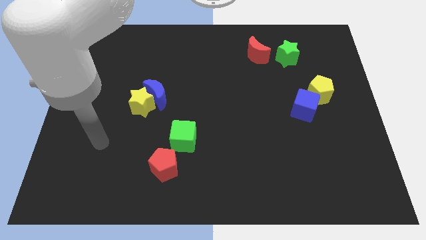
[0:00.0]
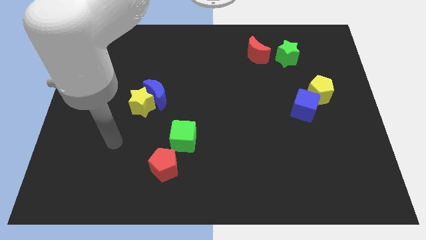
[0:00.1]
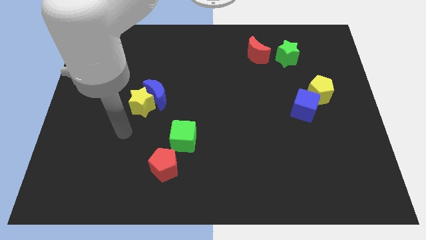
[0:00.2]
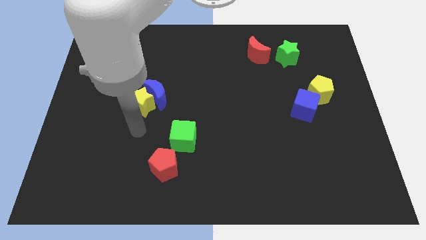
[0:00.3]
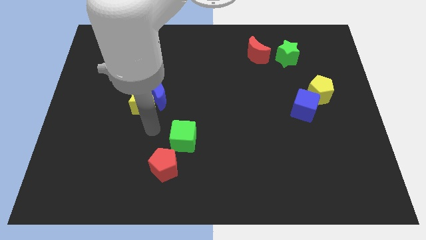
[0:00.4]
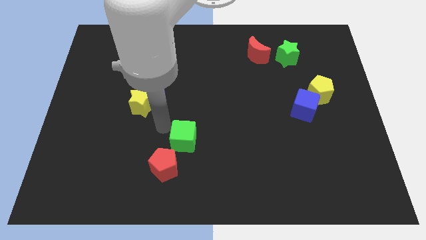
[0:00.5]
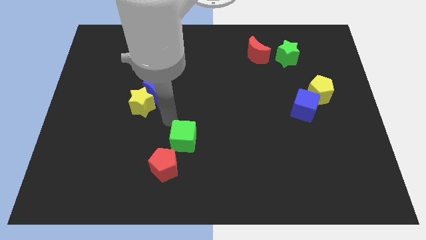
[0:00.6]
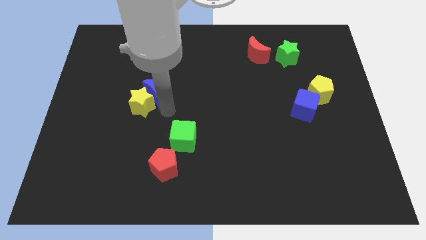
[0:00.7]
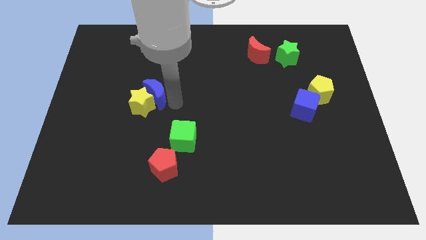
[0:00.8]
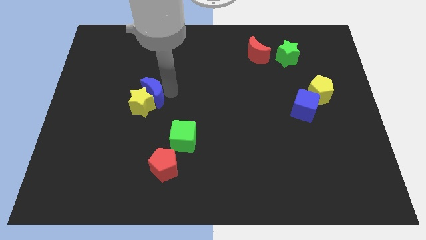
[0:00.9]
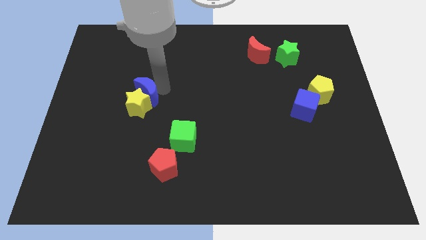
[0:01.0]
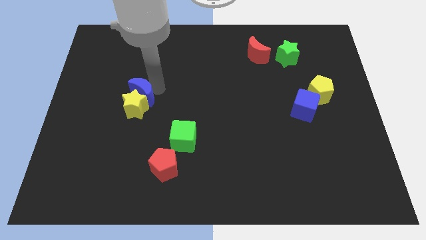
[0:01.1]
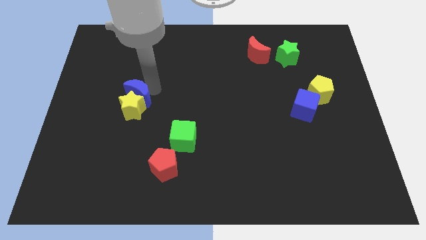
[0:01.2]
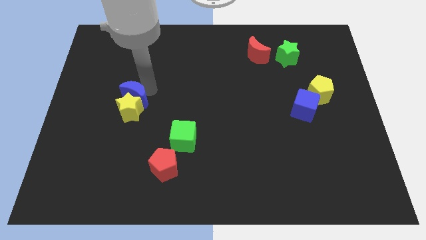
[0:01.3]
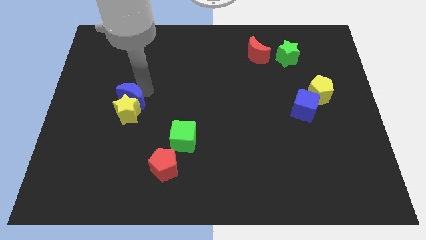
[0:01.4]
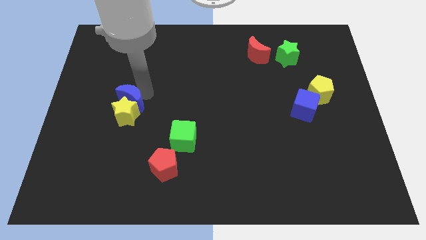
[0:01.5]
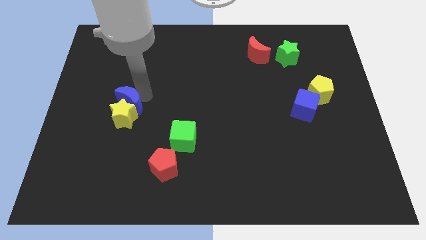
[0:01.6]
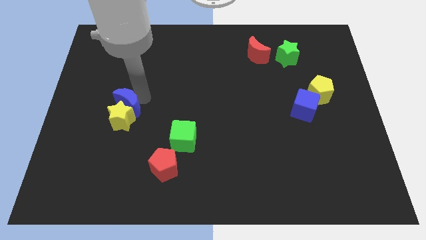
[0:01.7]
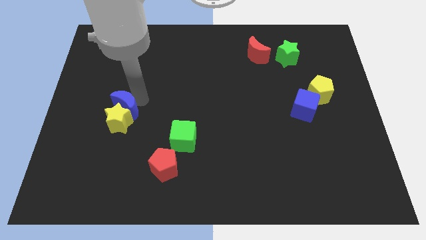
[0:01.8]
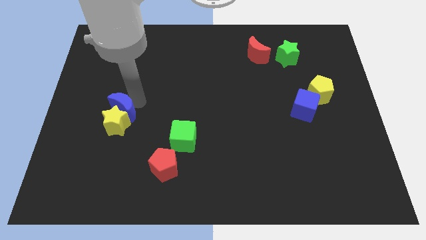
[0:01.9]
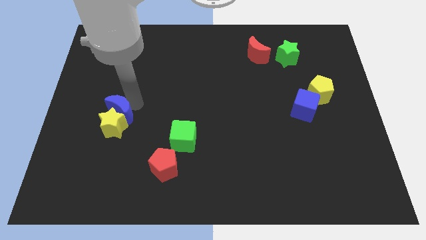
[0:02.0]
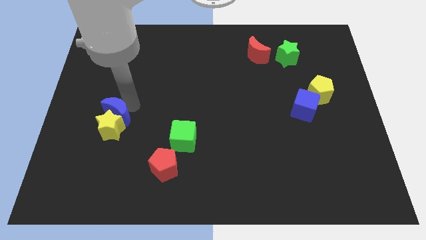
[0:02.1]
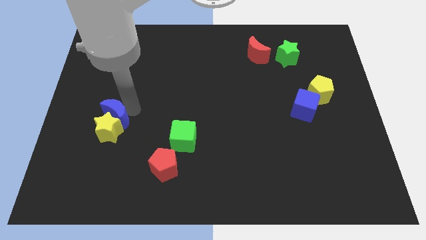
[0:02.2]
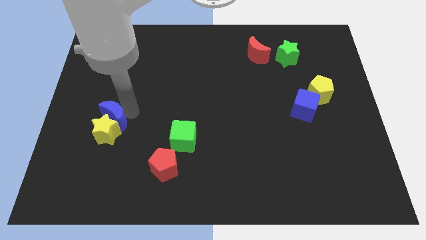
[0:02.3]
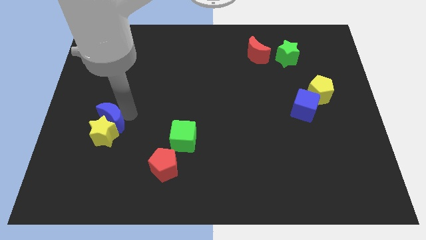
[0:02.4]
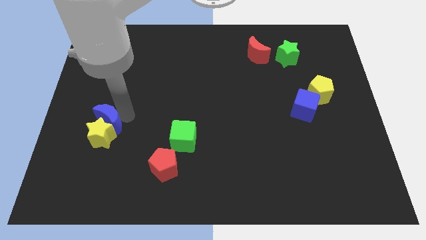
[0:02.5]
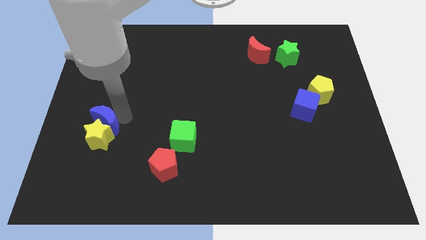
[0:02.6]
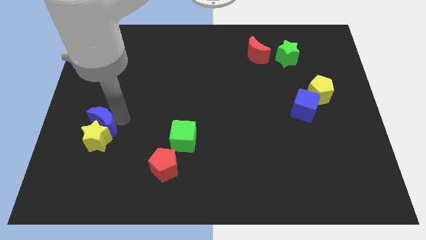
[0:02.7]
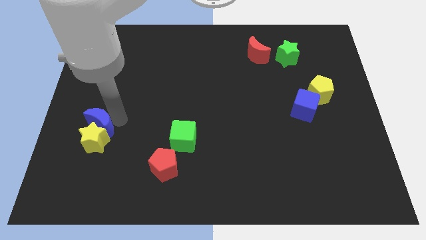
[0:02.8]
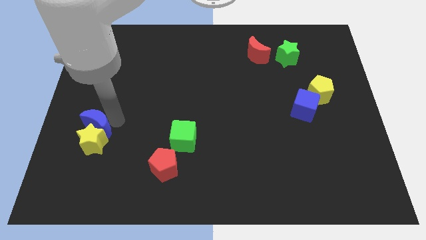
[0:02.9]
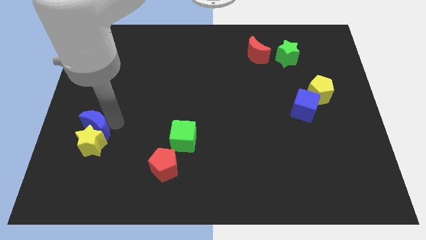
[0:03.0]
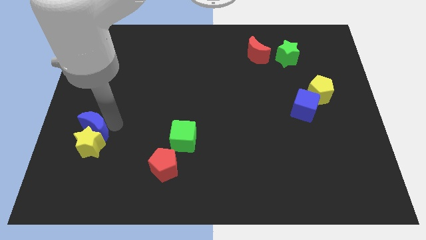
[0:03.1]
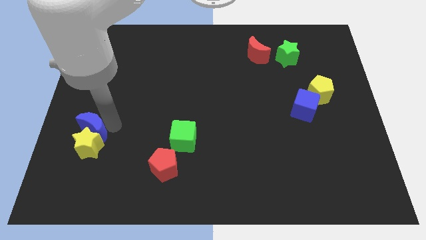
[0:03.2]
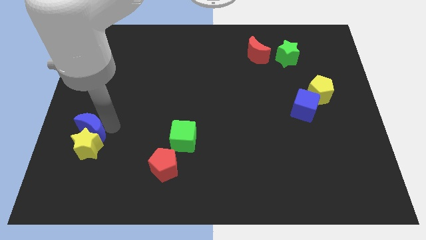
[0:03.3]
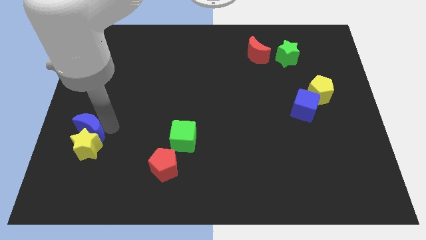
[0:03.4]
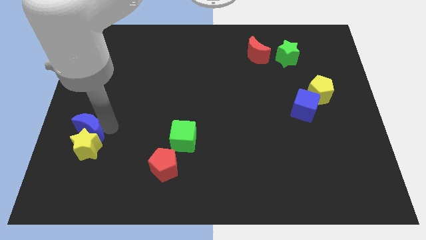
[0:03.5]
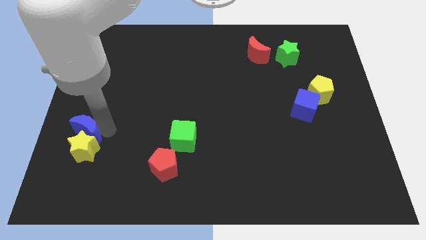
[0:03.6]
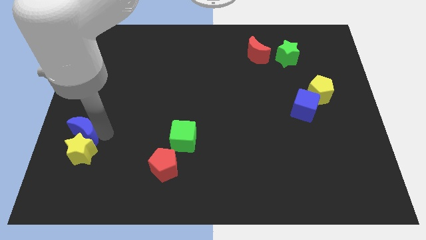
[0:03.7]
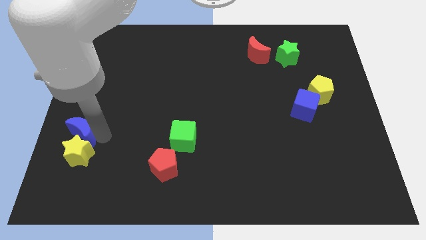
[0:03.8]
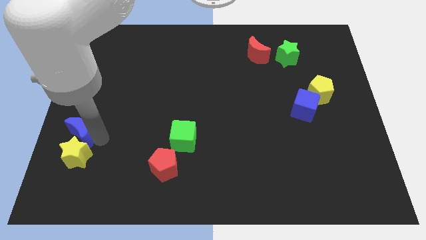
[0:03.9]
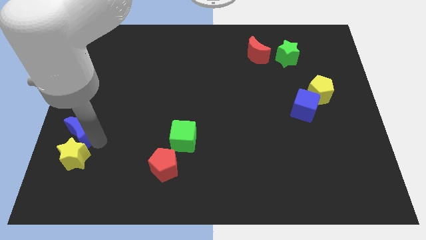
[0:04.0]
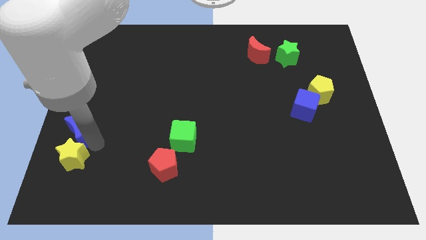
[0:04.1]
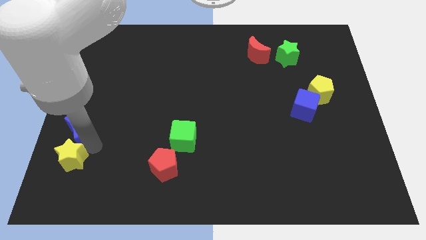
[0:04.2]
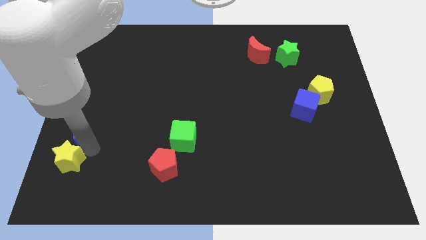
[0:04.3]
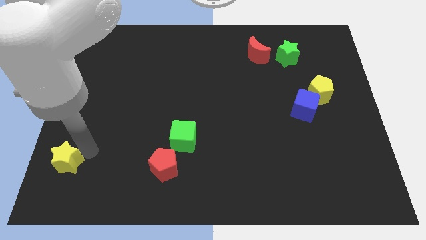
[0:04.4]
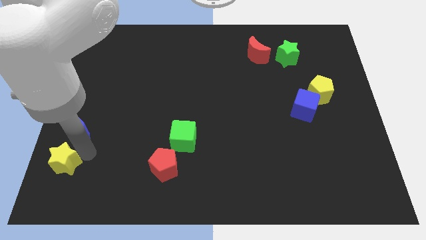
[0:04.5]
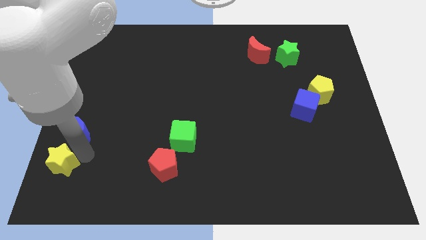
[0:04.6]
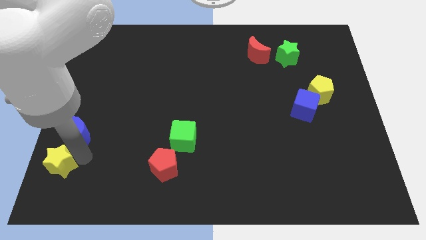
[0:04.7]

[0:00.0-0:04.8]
move the yellow star to the bottom left corner

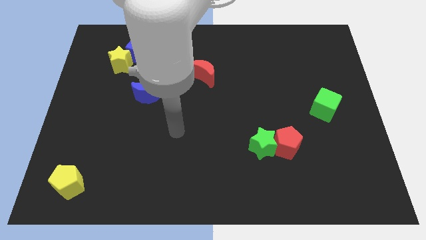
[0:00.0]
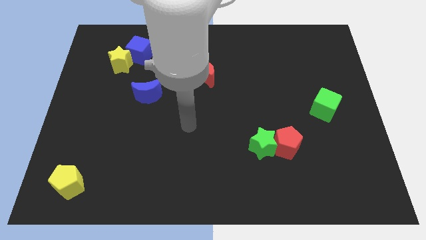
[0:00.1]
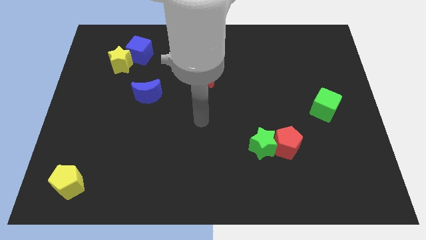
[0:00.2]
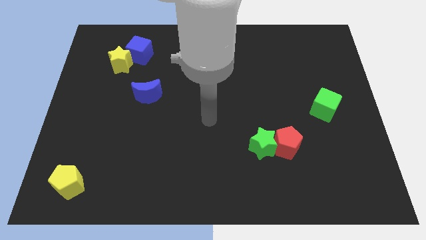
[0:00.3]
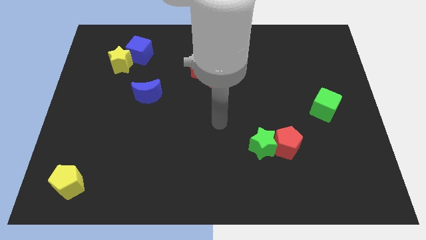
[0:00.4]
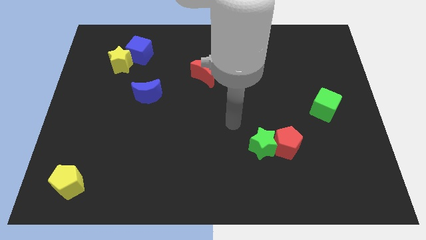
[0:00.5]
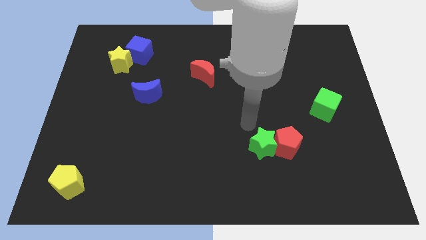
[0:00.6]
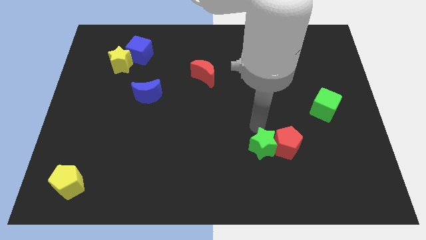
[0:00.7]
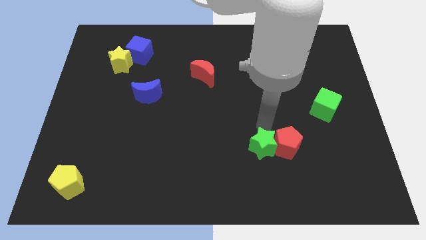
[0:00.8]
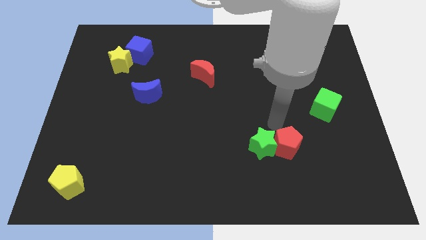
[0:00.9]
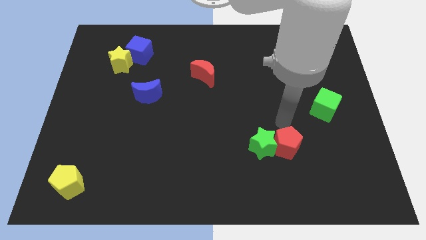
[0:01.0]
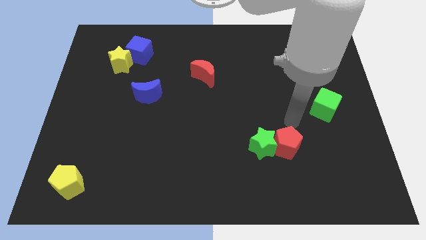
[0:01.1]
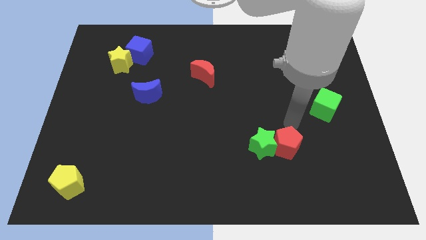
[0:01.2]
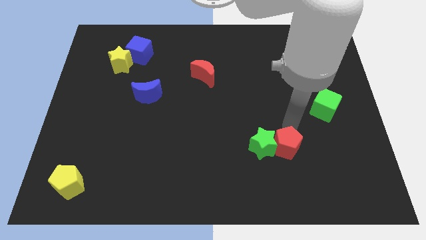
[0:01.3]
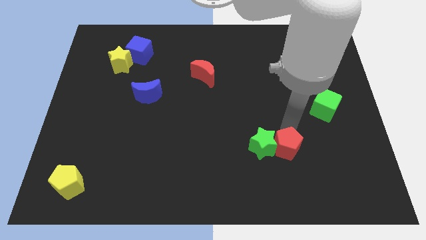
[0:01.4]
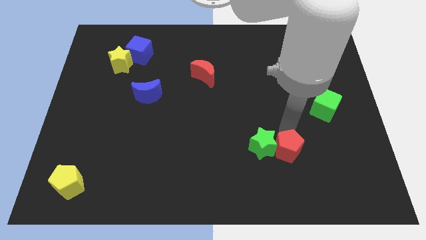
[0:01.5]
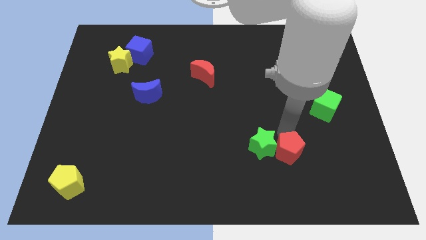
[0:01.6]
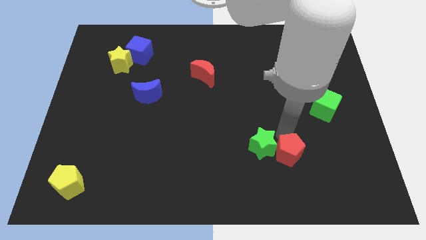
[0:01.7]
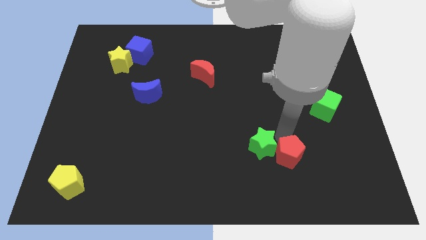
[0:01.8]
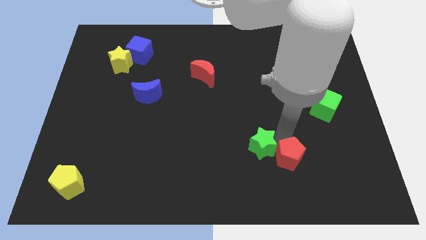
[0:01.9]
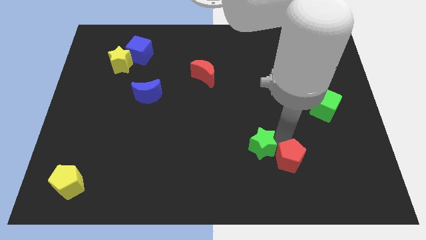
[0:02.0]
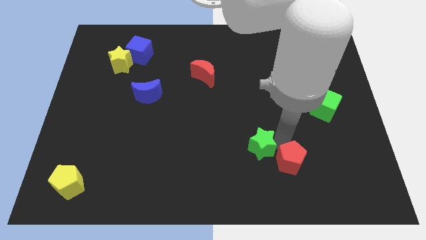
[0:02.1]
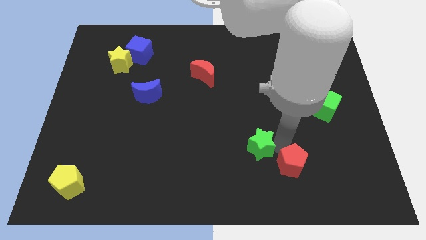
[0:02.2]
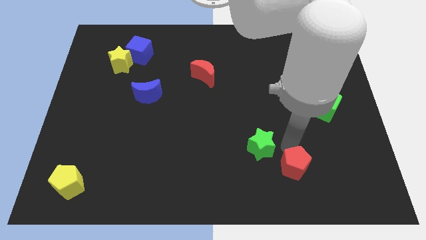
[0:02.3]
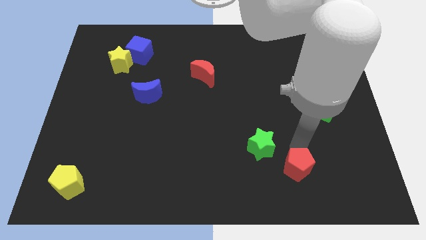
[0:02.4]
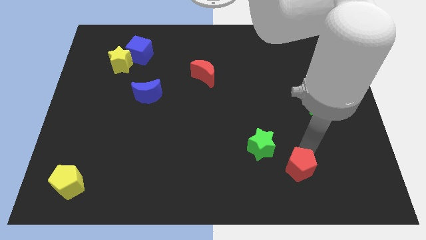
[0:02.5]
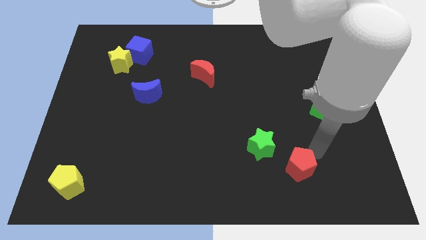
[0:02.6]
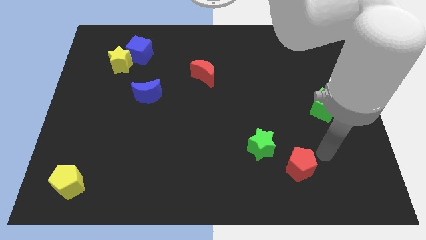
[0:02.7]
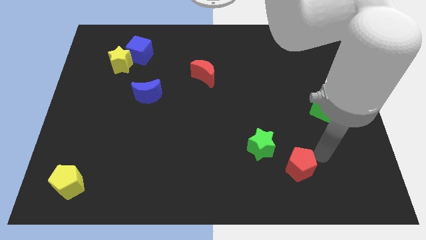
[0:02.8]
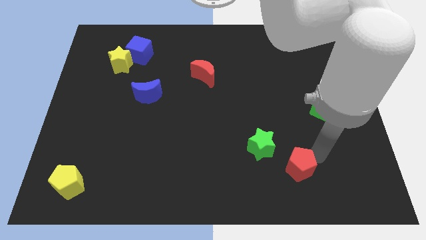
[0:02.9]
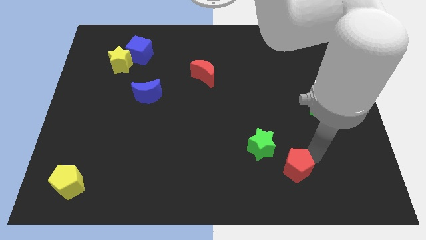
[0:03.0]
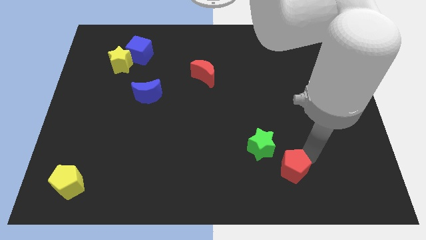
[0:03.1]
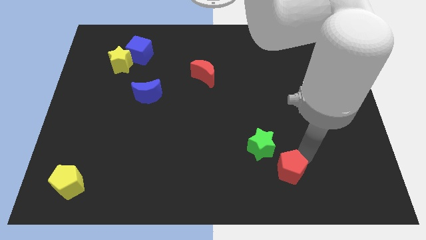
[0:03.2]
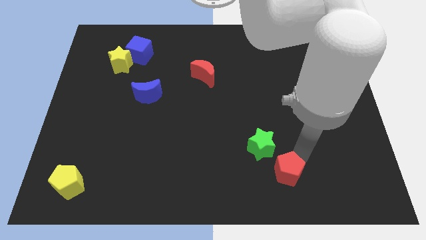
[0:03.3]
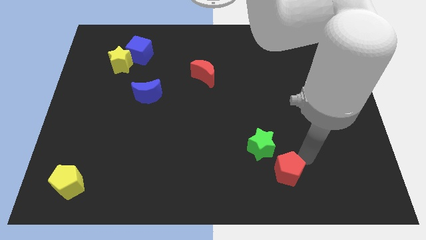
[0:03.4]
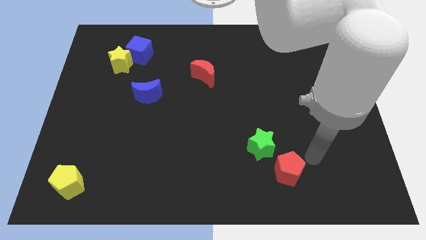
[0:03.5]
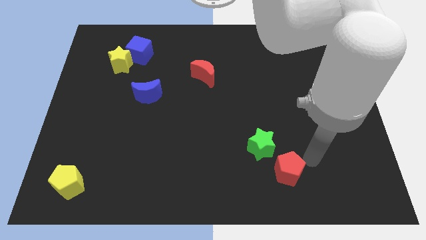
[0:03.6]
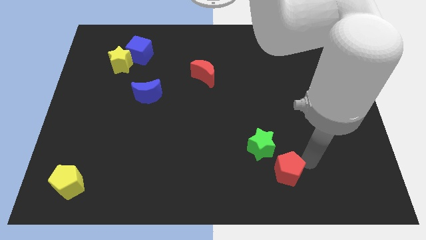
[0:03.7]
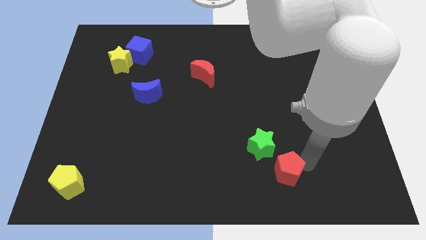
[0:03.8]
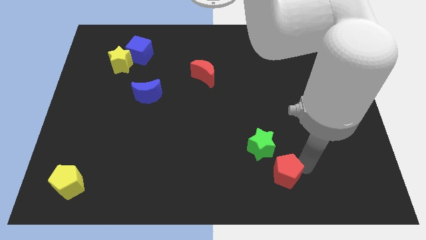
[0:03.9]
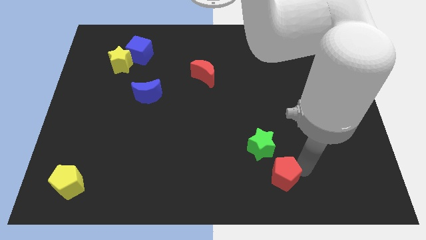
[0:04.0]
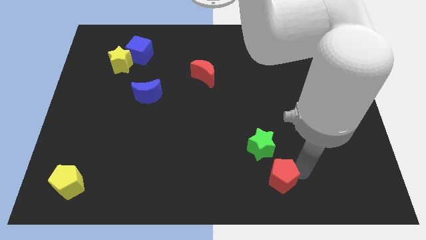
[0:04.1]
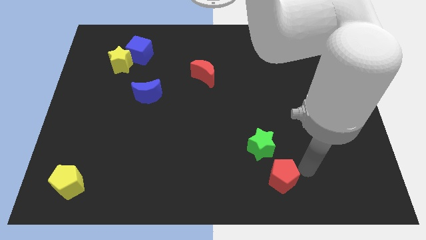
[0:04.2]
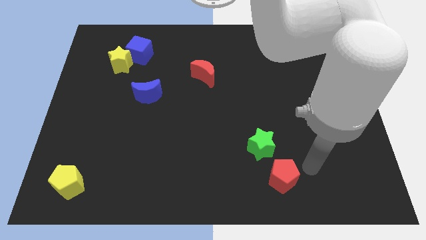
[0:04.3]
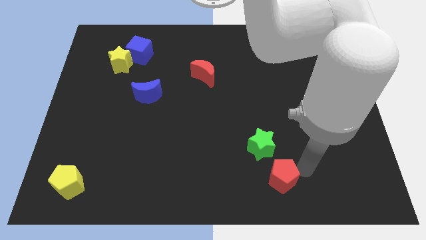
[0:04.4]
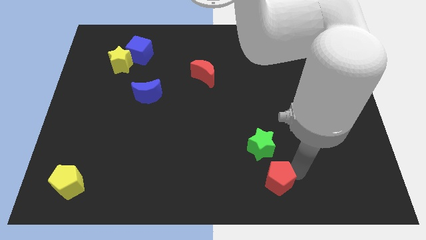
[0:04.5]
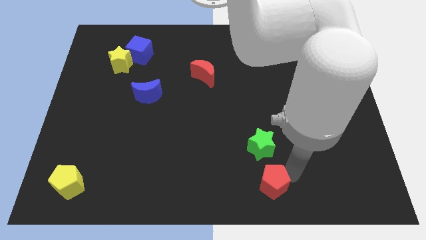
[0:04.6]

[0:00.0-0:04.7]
put the red pentagon to the bottom
